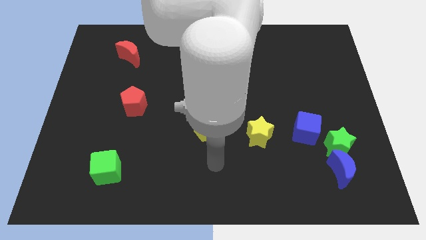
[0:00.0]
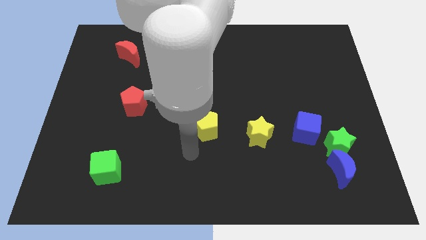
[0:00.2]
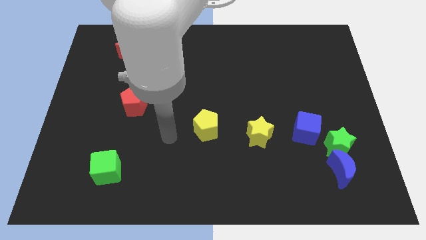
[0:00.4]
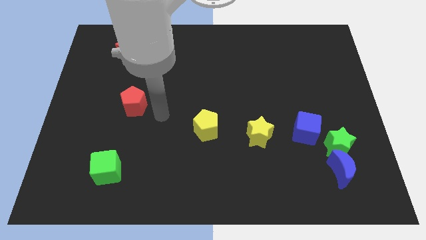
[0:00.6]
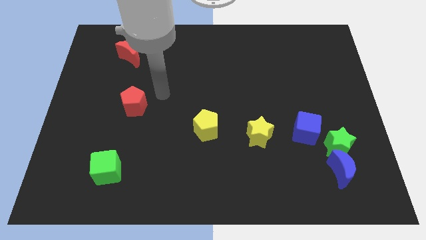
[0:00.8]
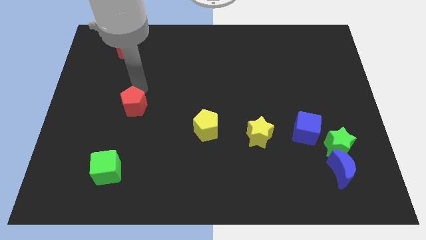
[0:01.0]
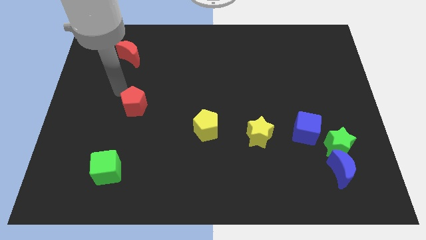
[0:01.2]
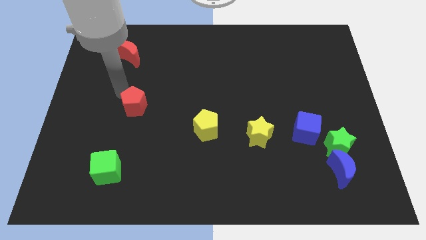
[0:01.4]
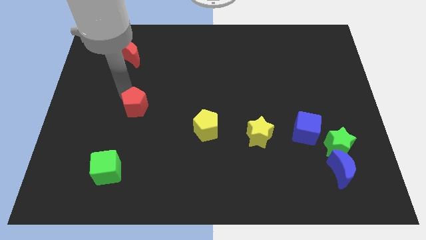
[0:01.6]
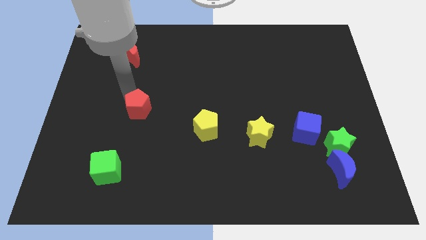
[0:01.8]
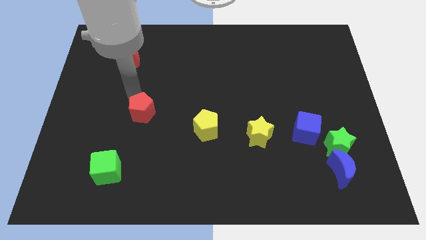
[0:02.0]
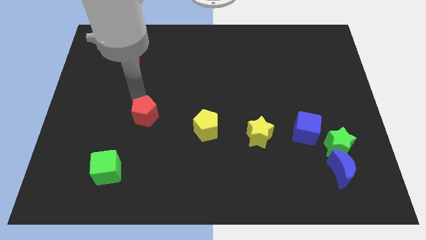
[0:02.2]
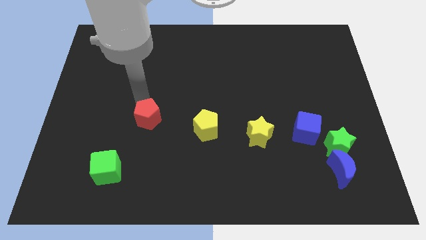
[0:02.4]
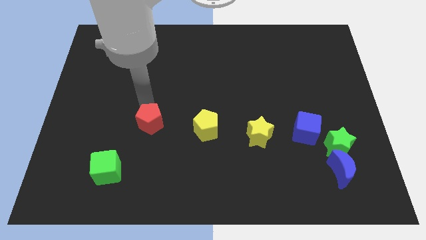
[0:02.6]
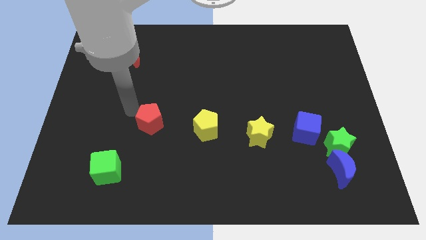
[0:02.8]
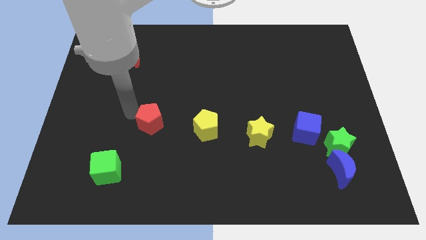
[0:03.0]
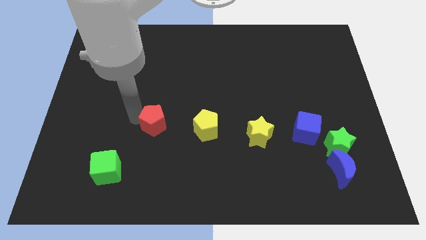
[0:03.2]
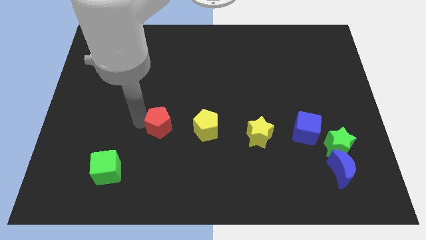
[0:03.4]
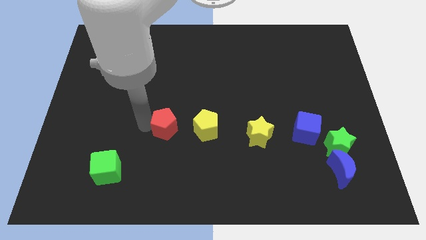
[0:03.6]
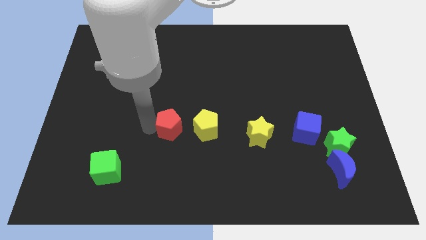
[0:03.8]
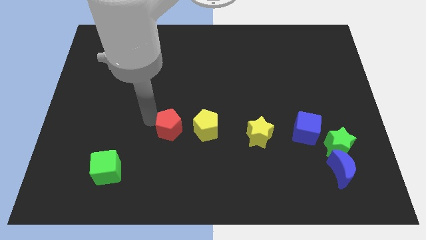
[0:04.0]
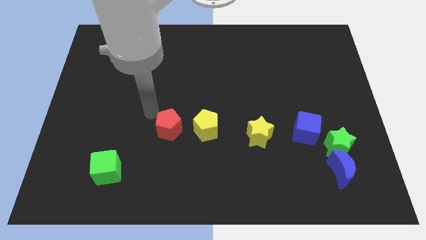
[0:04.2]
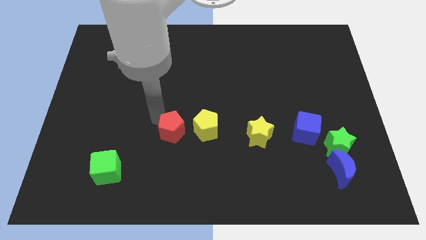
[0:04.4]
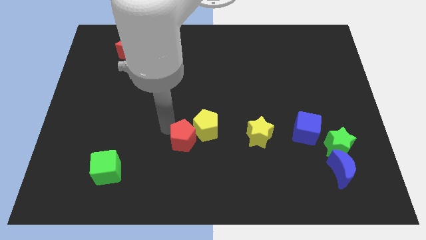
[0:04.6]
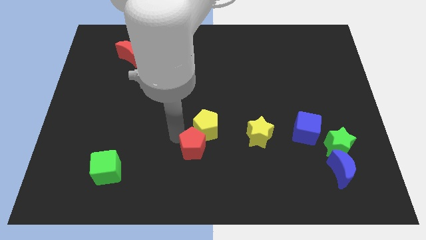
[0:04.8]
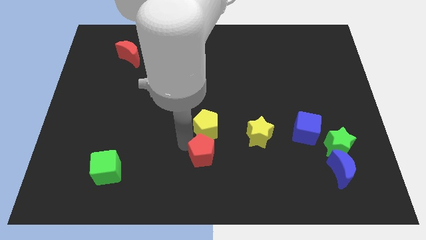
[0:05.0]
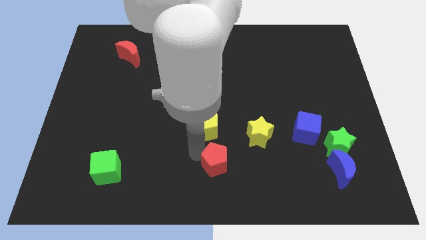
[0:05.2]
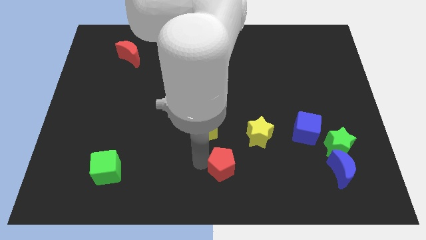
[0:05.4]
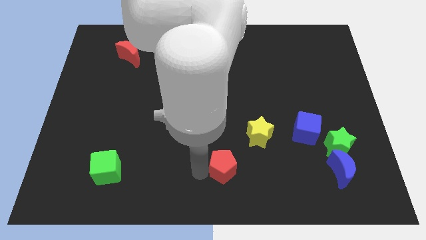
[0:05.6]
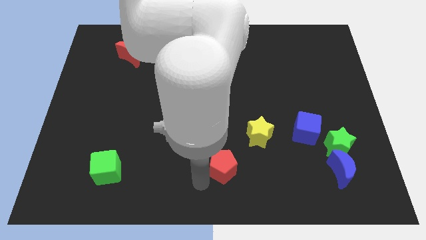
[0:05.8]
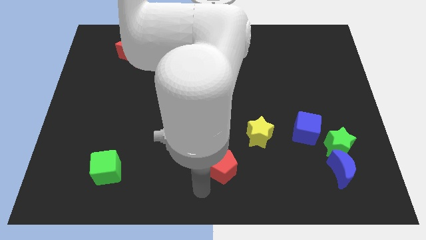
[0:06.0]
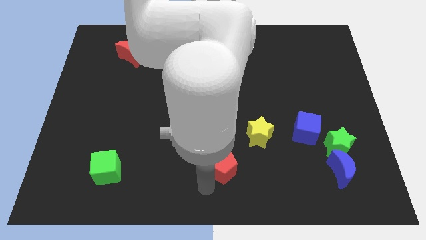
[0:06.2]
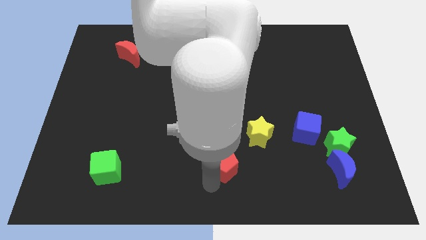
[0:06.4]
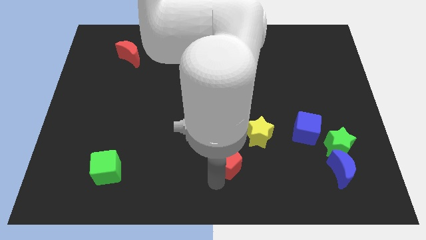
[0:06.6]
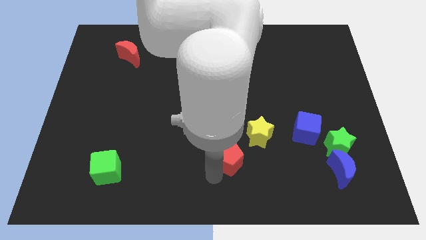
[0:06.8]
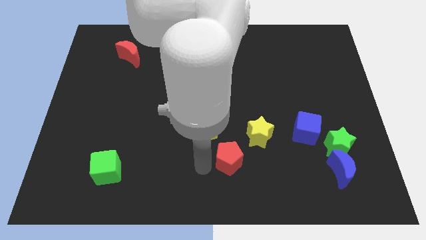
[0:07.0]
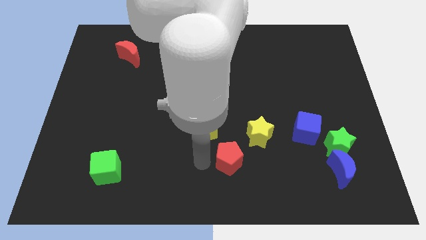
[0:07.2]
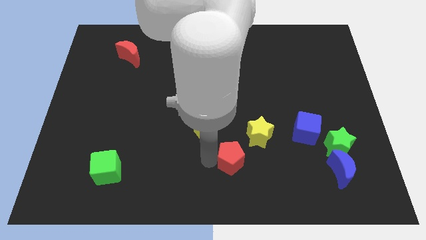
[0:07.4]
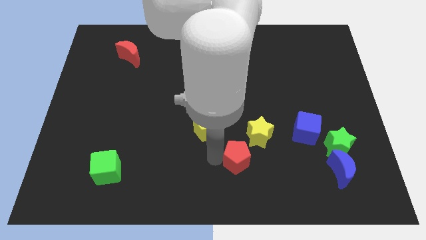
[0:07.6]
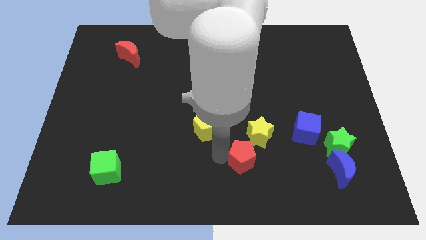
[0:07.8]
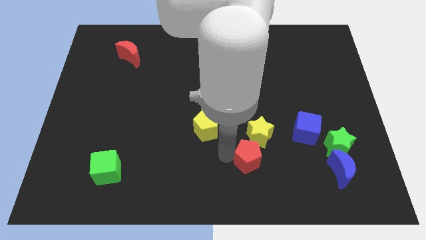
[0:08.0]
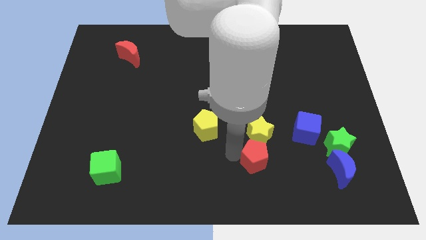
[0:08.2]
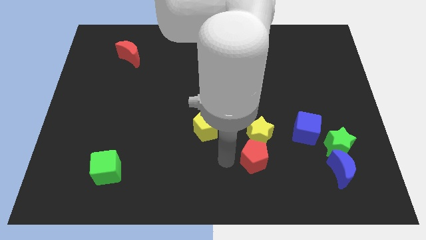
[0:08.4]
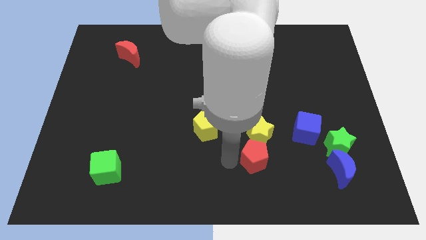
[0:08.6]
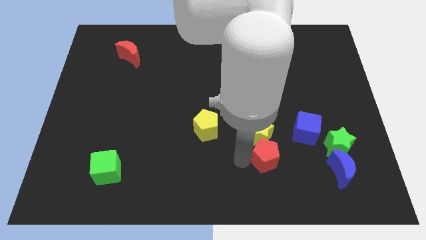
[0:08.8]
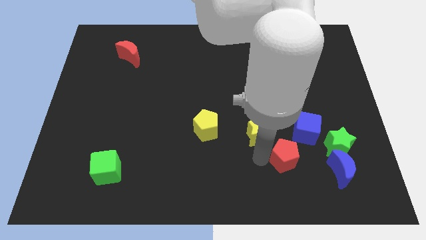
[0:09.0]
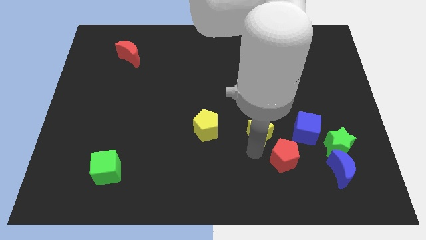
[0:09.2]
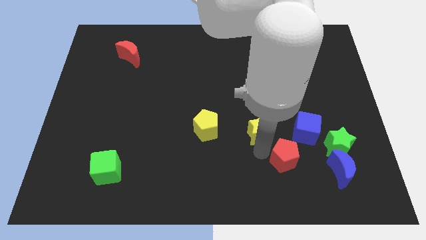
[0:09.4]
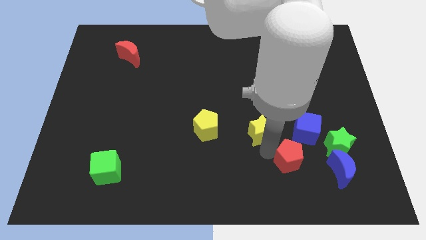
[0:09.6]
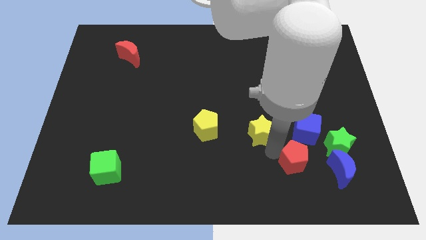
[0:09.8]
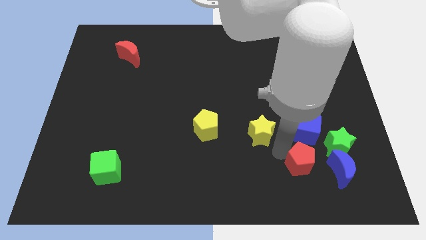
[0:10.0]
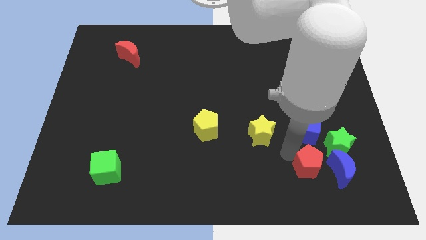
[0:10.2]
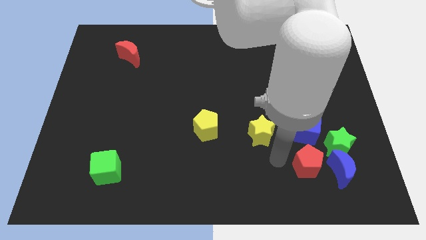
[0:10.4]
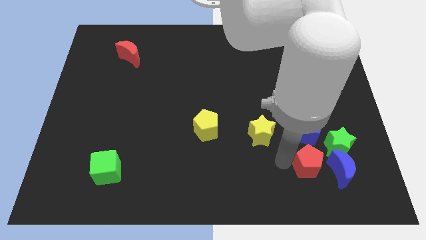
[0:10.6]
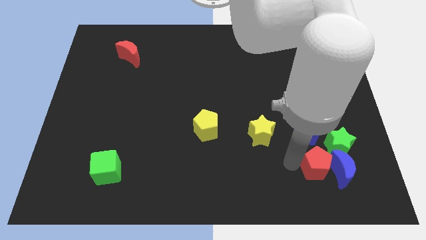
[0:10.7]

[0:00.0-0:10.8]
slide the red pentagon to the blue moon

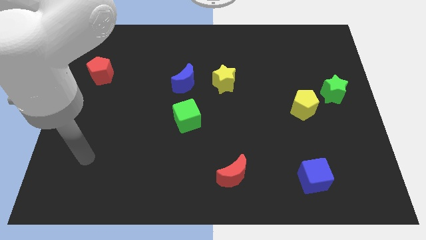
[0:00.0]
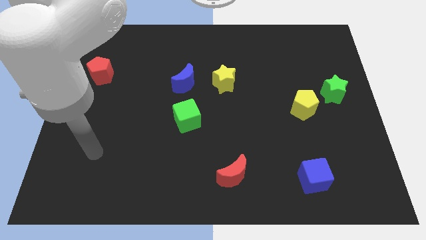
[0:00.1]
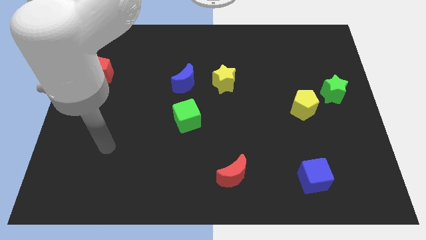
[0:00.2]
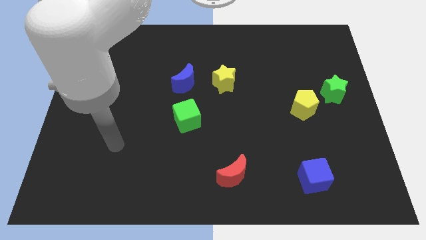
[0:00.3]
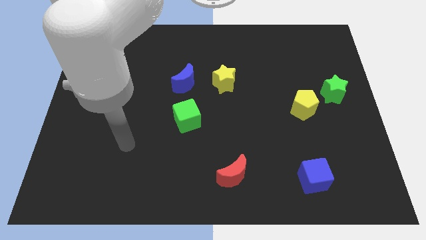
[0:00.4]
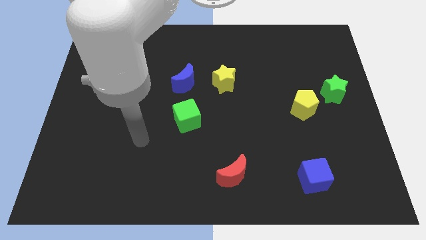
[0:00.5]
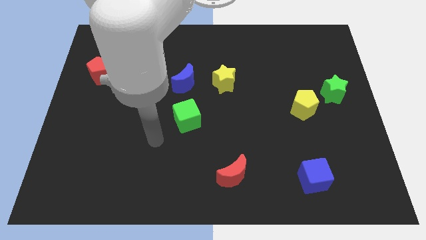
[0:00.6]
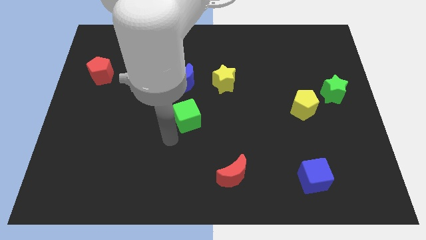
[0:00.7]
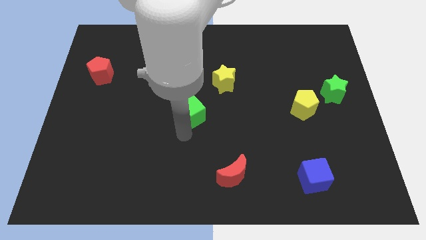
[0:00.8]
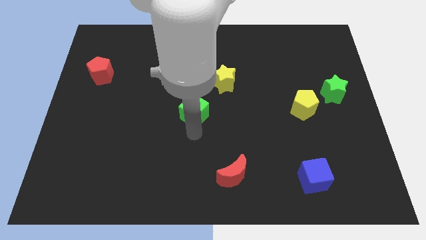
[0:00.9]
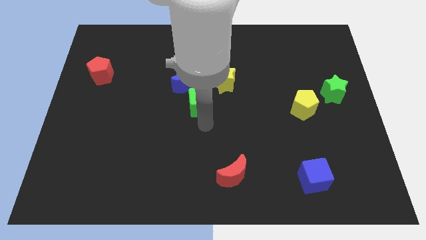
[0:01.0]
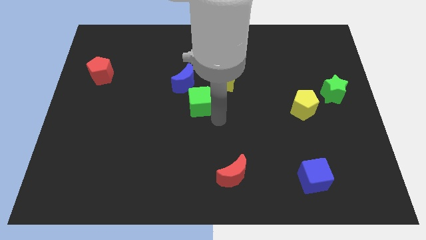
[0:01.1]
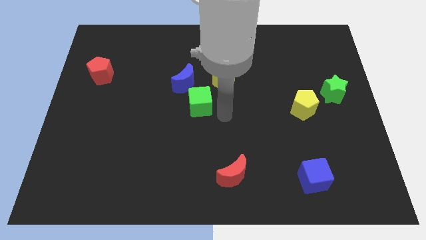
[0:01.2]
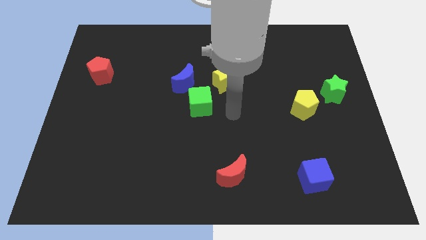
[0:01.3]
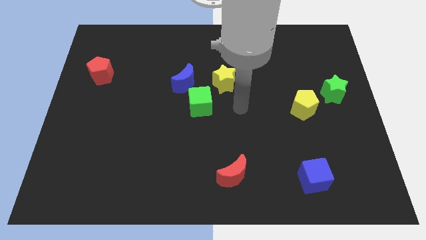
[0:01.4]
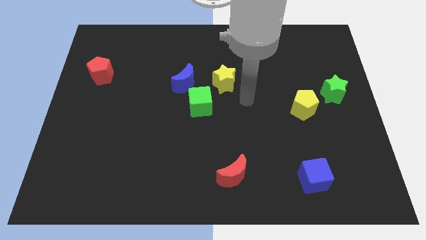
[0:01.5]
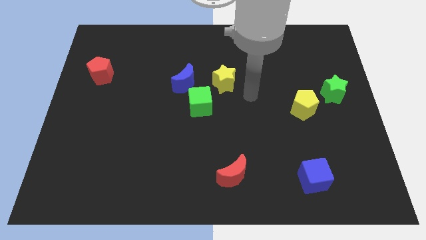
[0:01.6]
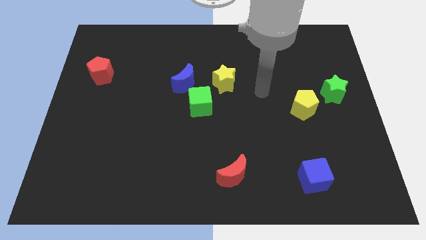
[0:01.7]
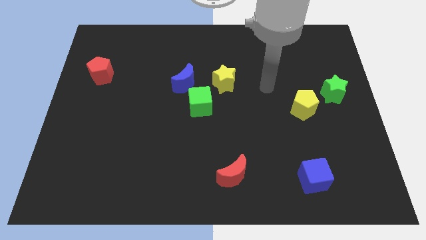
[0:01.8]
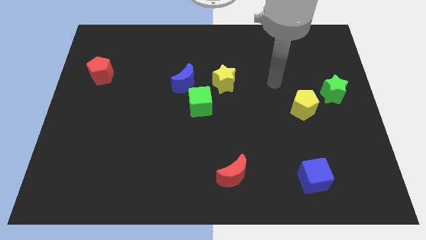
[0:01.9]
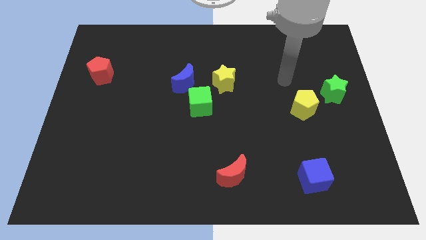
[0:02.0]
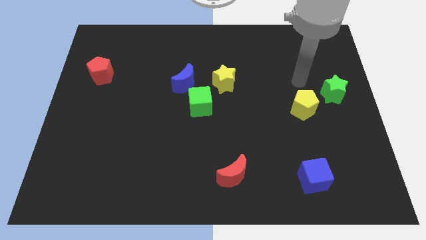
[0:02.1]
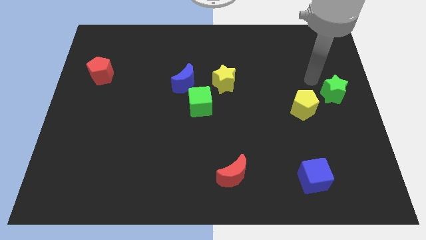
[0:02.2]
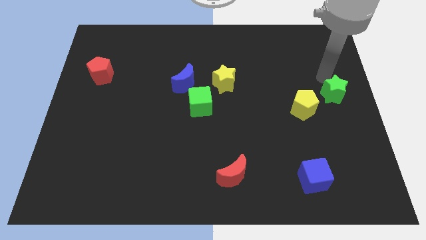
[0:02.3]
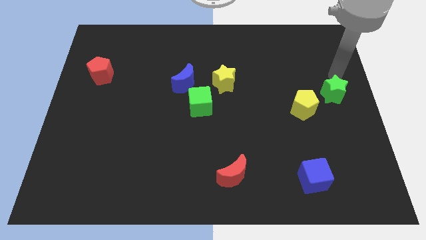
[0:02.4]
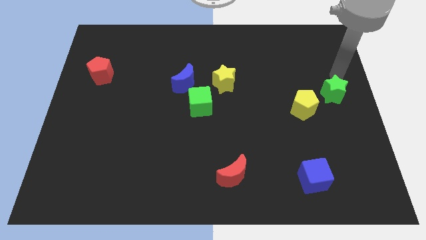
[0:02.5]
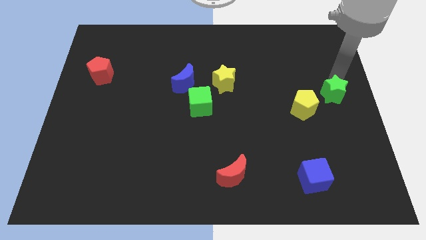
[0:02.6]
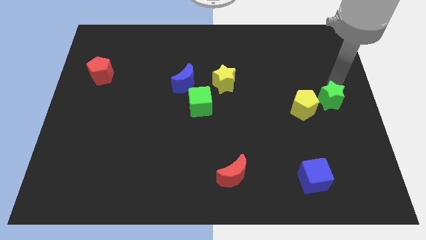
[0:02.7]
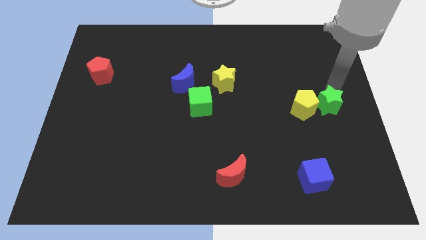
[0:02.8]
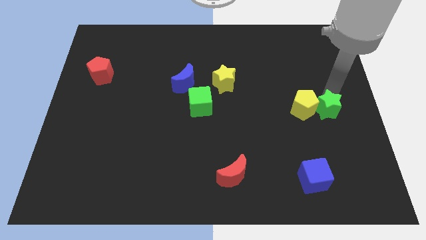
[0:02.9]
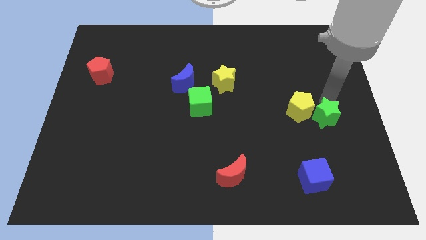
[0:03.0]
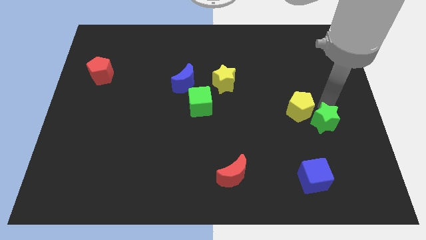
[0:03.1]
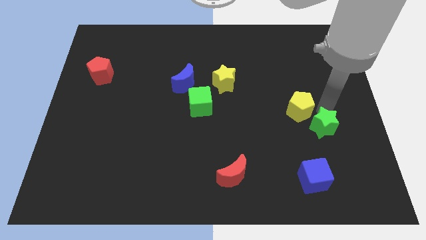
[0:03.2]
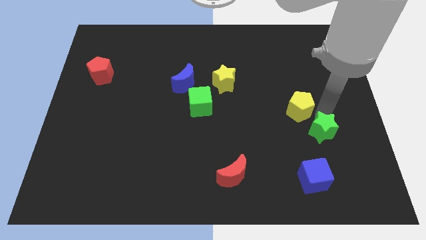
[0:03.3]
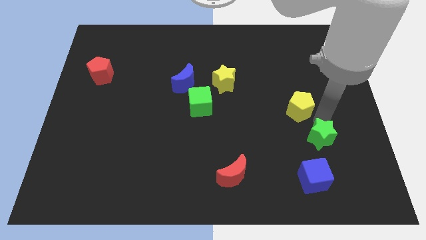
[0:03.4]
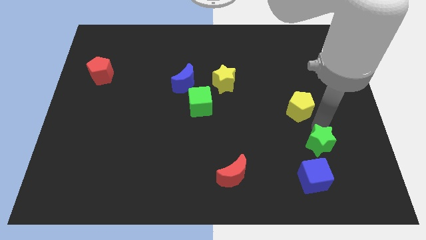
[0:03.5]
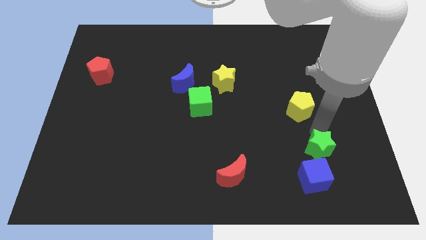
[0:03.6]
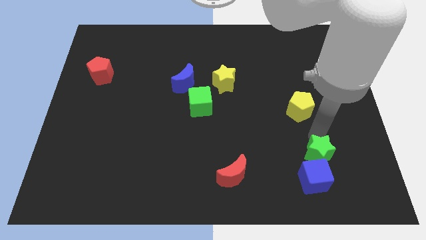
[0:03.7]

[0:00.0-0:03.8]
push the green star to the blue cube
